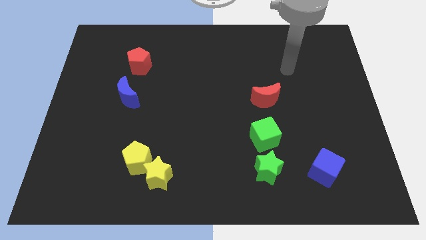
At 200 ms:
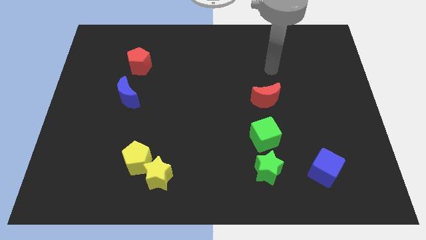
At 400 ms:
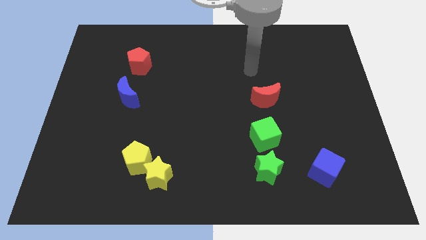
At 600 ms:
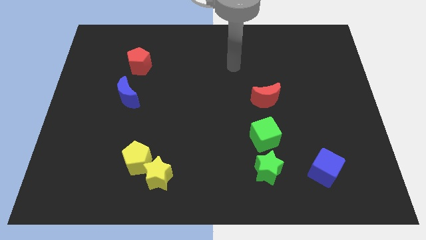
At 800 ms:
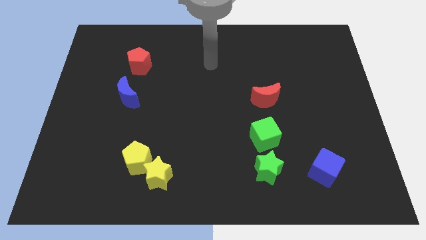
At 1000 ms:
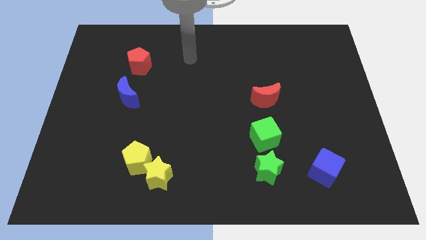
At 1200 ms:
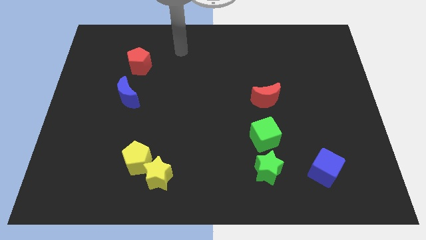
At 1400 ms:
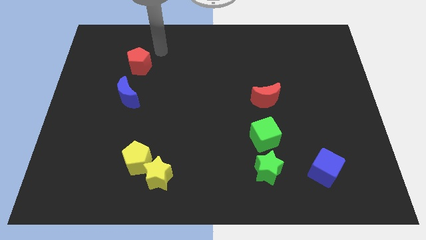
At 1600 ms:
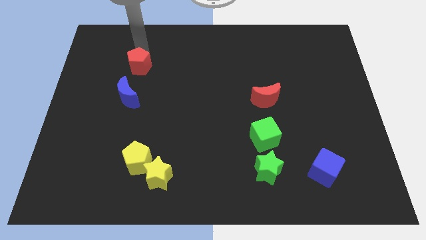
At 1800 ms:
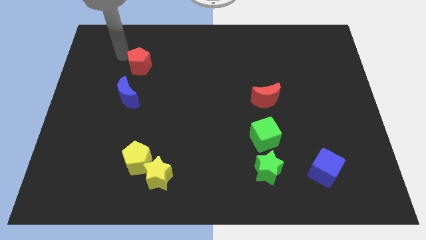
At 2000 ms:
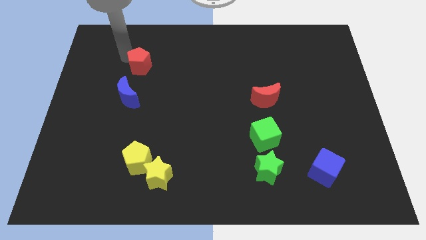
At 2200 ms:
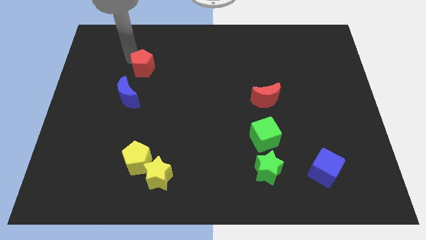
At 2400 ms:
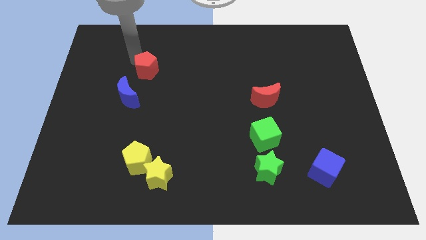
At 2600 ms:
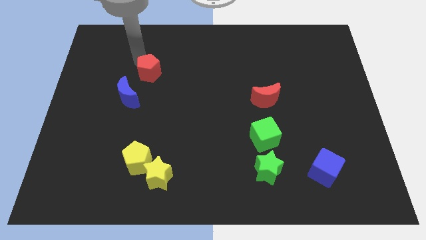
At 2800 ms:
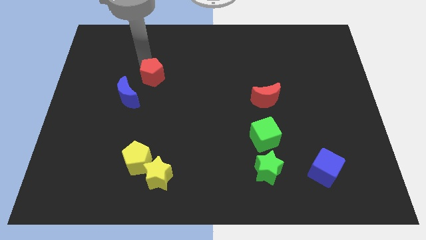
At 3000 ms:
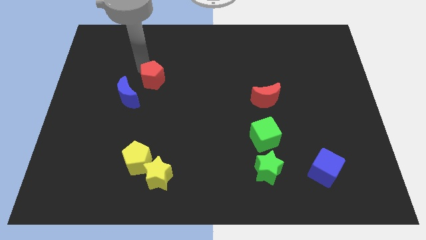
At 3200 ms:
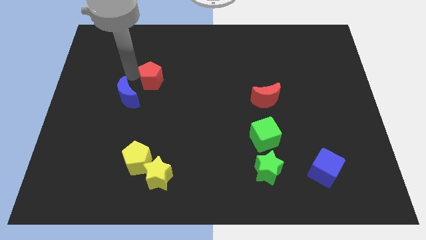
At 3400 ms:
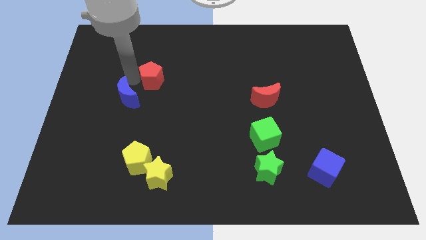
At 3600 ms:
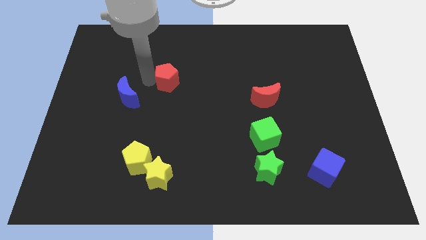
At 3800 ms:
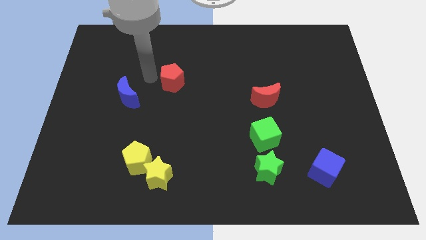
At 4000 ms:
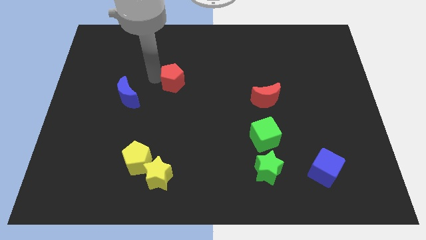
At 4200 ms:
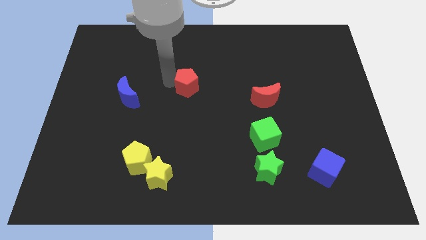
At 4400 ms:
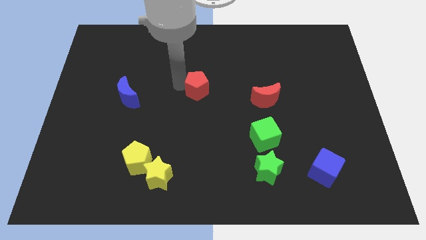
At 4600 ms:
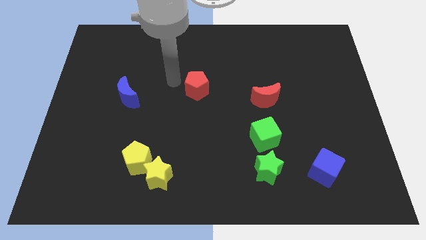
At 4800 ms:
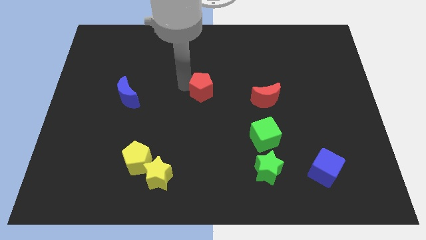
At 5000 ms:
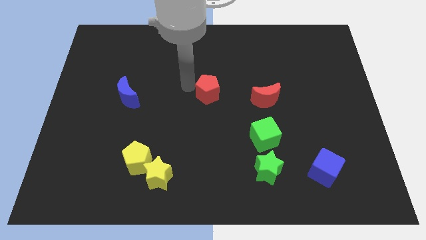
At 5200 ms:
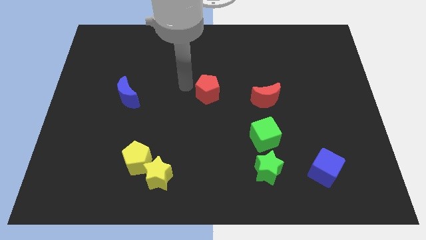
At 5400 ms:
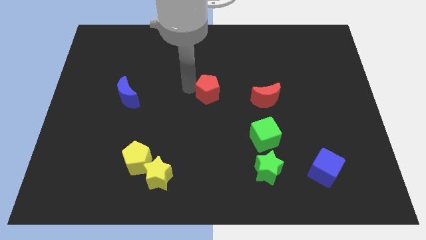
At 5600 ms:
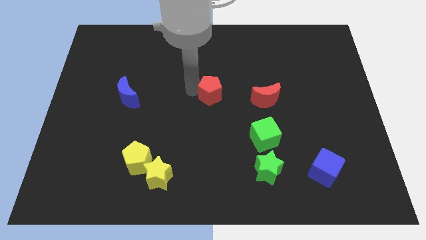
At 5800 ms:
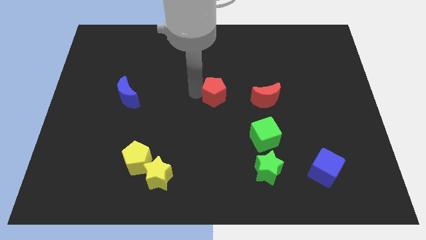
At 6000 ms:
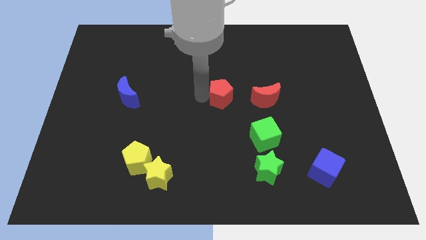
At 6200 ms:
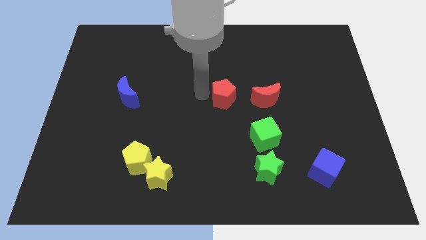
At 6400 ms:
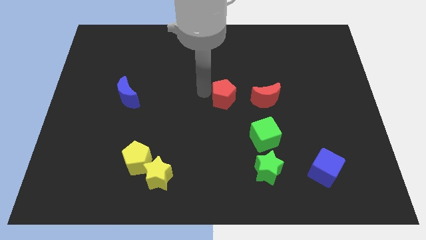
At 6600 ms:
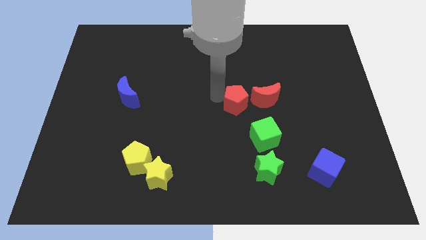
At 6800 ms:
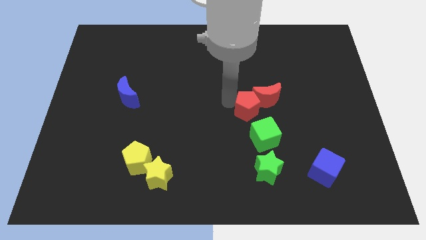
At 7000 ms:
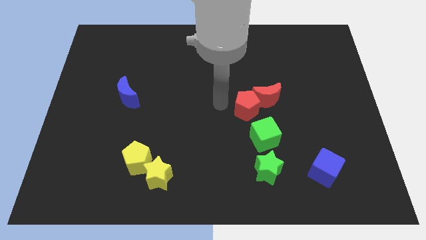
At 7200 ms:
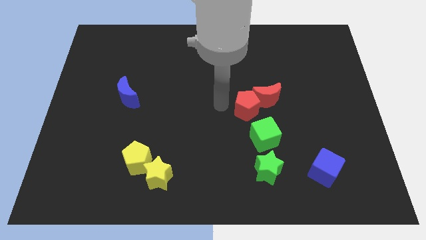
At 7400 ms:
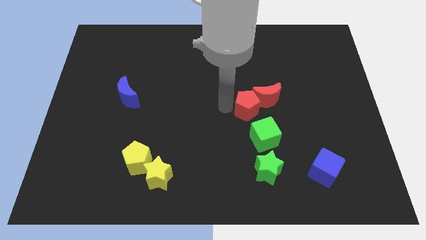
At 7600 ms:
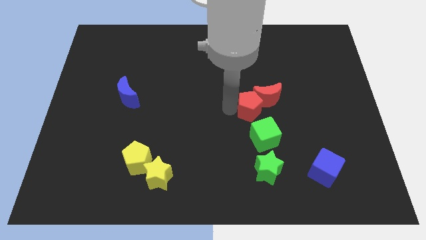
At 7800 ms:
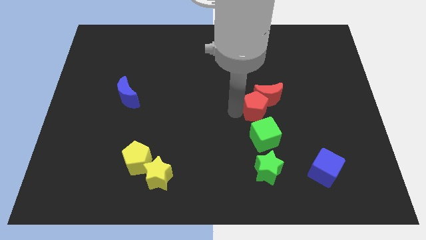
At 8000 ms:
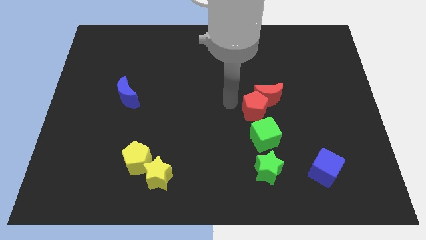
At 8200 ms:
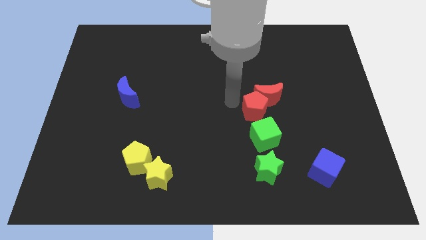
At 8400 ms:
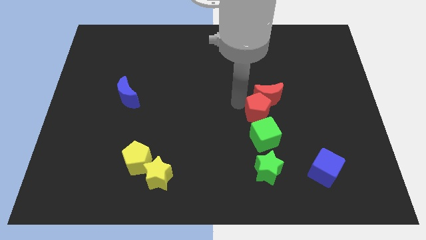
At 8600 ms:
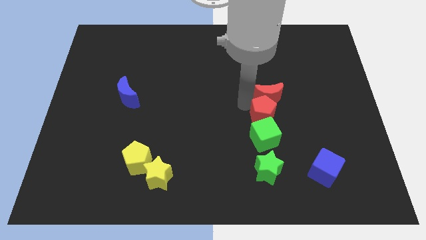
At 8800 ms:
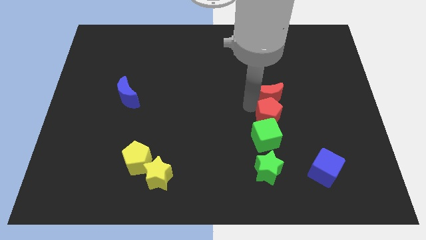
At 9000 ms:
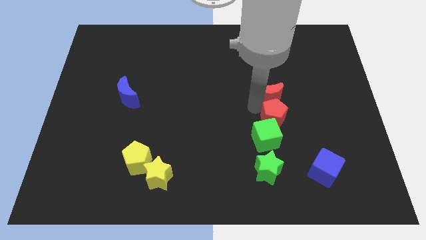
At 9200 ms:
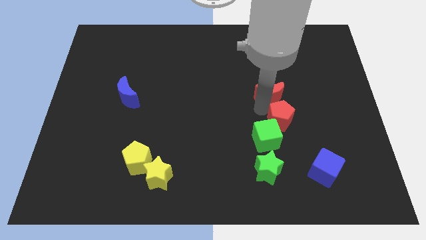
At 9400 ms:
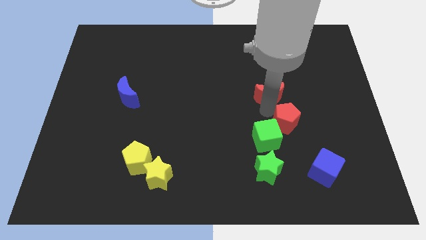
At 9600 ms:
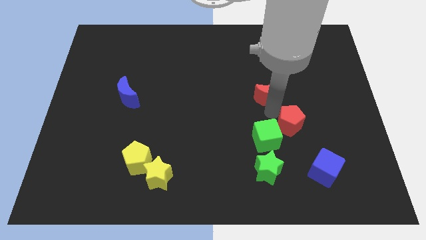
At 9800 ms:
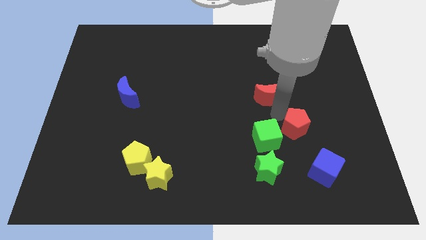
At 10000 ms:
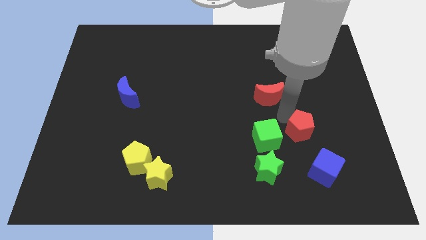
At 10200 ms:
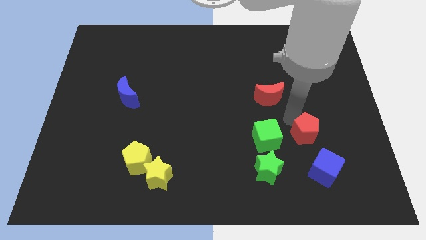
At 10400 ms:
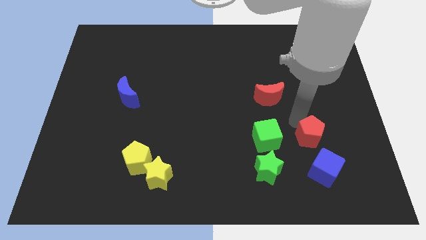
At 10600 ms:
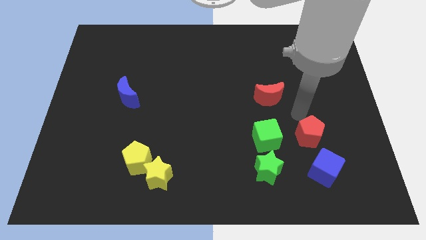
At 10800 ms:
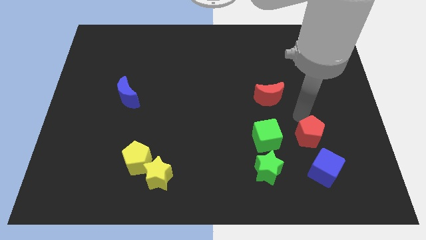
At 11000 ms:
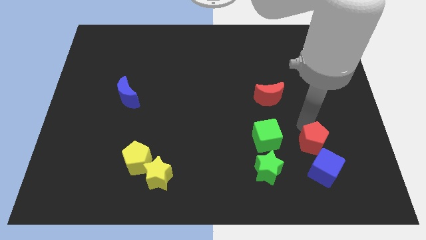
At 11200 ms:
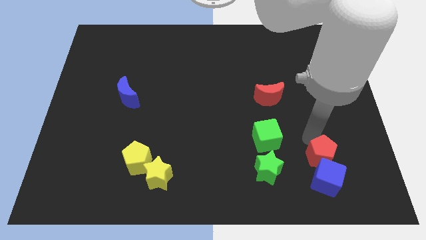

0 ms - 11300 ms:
push the red pentagon towards the blue cube

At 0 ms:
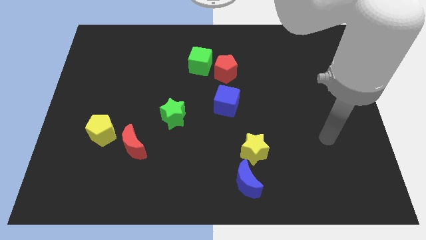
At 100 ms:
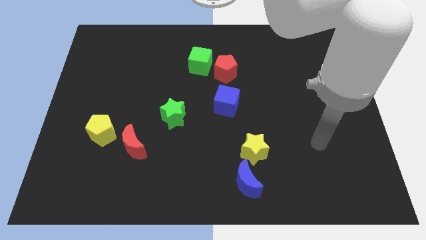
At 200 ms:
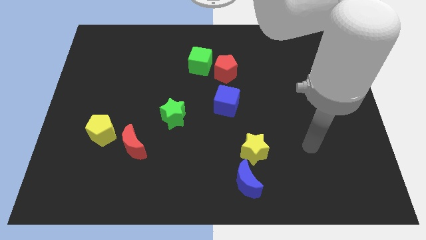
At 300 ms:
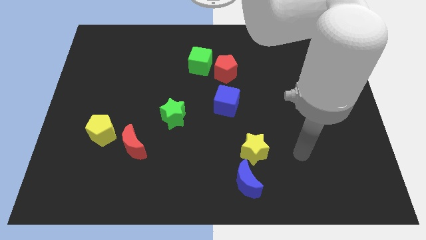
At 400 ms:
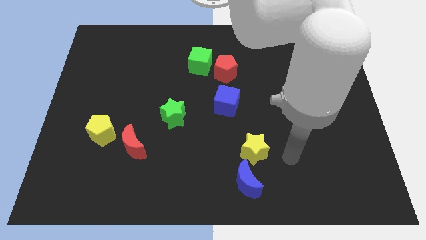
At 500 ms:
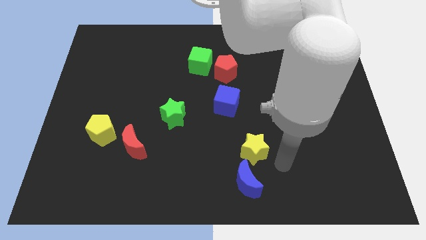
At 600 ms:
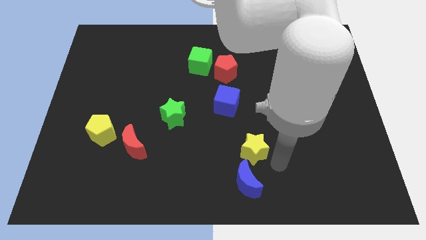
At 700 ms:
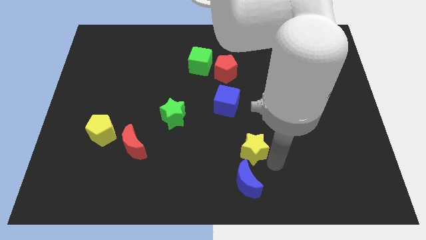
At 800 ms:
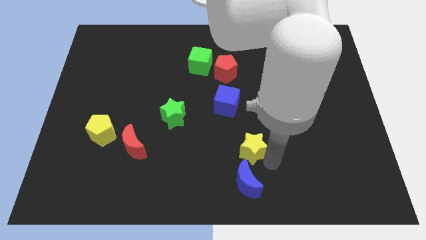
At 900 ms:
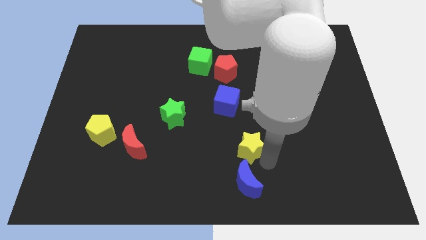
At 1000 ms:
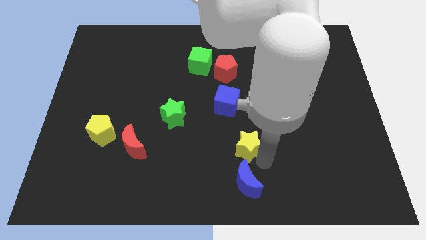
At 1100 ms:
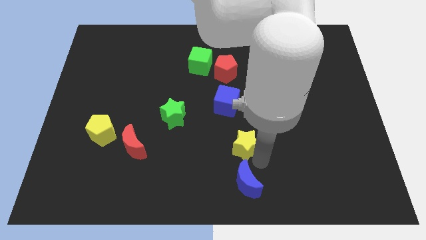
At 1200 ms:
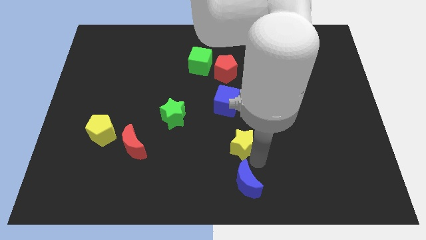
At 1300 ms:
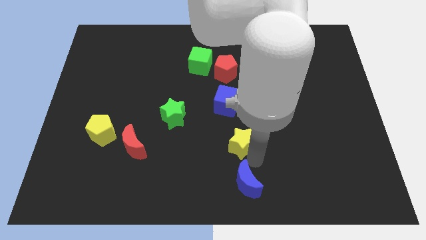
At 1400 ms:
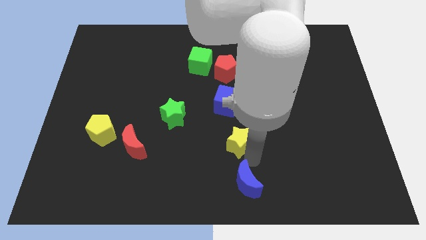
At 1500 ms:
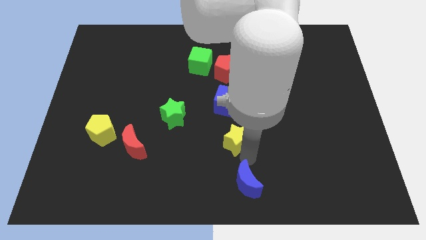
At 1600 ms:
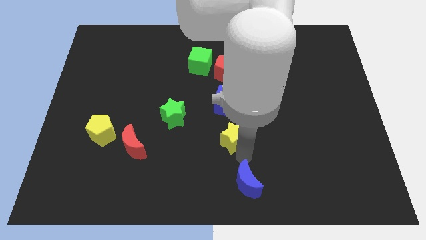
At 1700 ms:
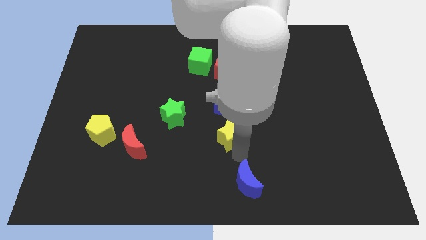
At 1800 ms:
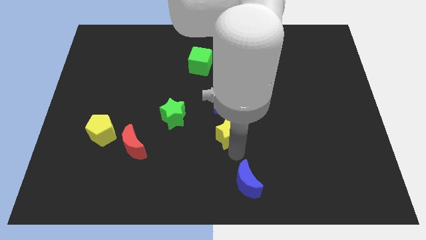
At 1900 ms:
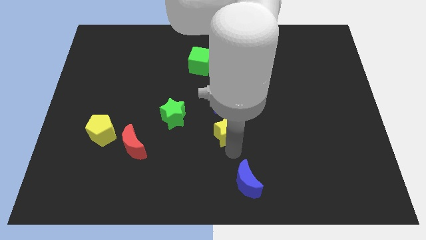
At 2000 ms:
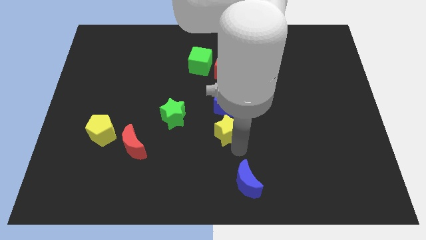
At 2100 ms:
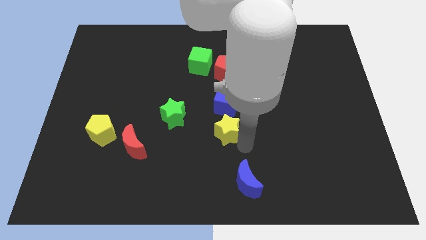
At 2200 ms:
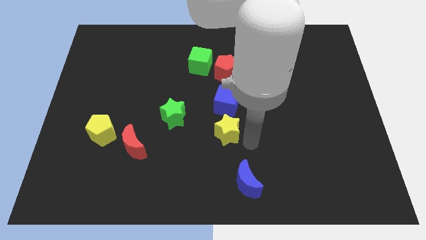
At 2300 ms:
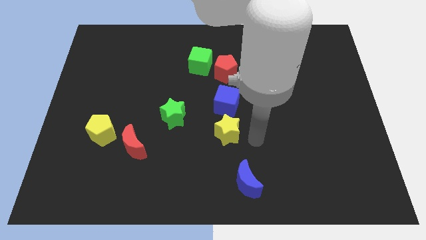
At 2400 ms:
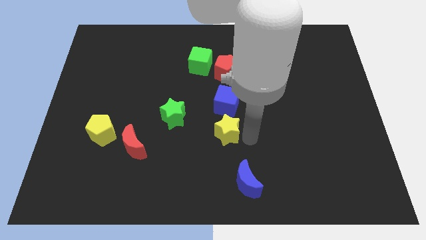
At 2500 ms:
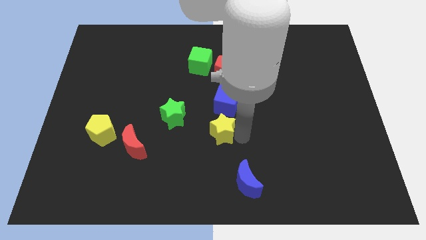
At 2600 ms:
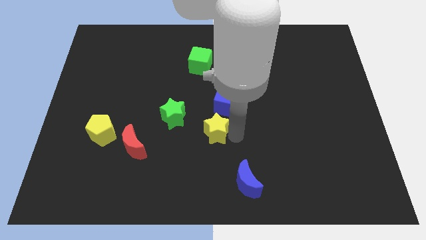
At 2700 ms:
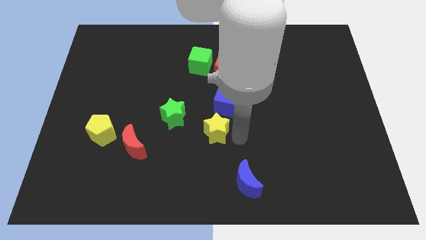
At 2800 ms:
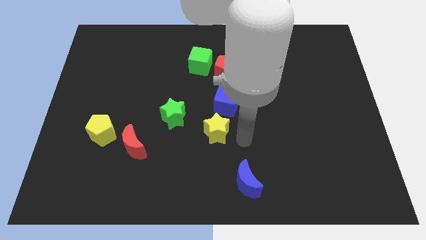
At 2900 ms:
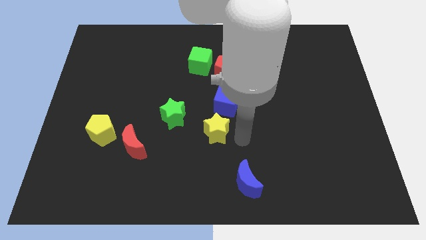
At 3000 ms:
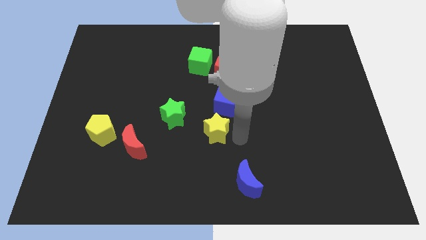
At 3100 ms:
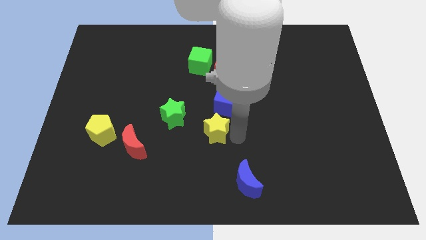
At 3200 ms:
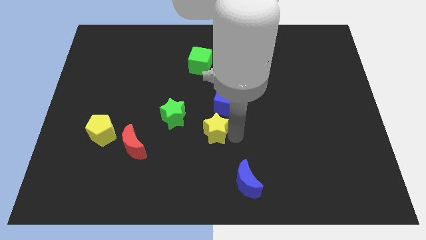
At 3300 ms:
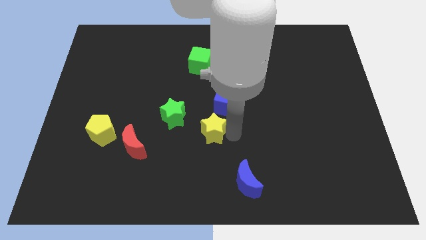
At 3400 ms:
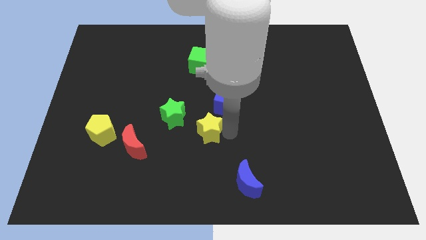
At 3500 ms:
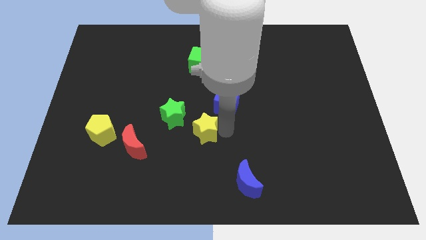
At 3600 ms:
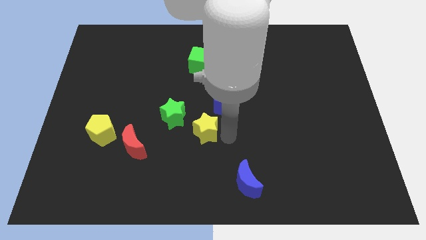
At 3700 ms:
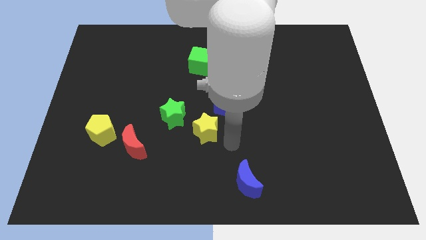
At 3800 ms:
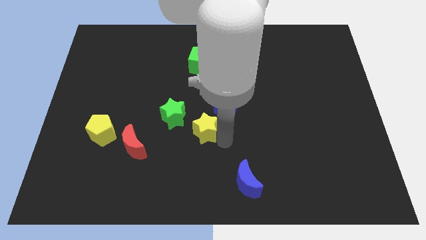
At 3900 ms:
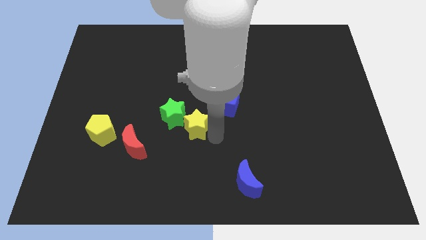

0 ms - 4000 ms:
slide the yellow star close to the green star
